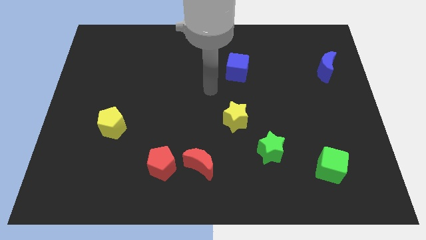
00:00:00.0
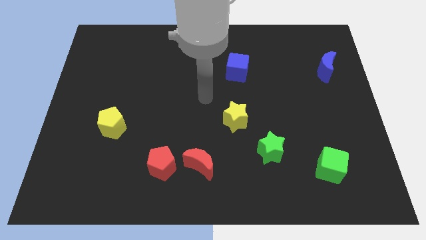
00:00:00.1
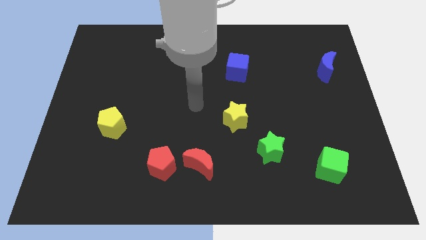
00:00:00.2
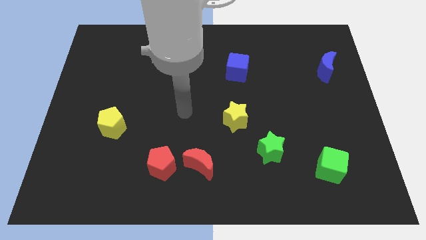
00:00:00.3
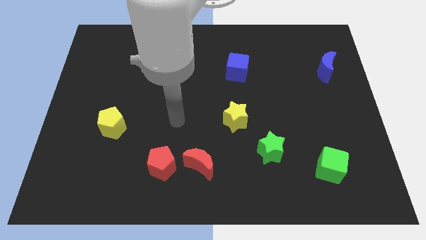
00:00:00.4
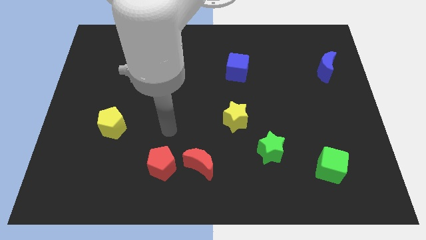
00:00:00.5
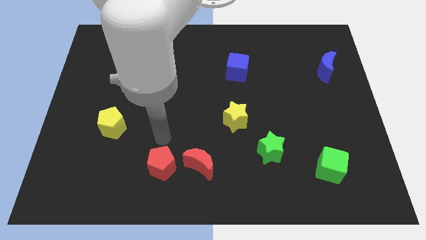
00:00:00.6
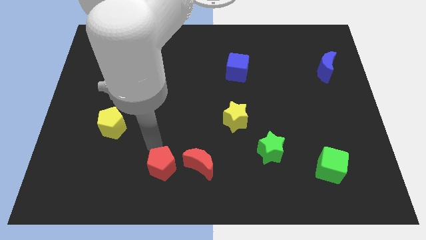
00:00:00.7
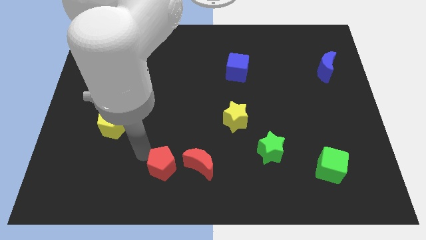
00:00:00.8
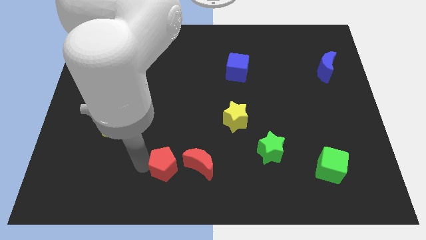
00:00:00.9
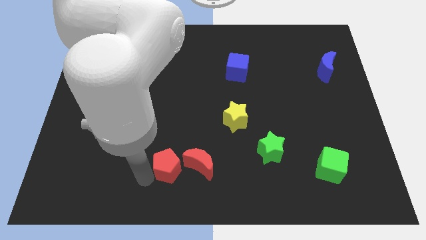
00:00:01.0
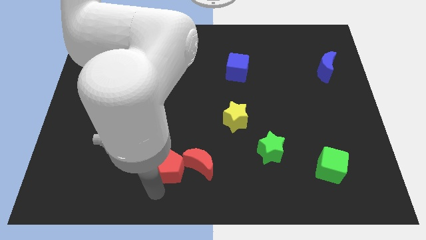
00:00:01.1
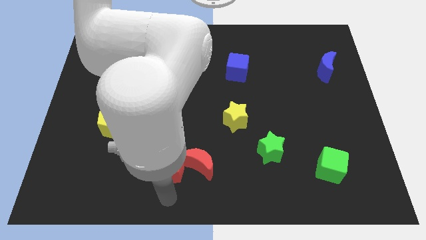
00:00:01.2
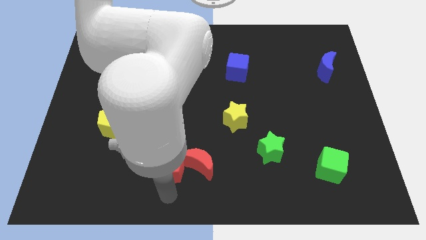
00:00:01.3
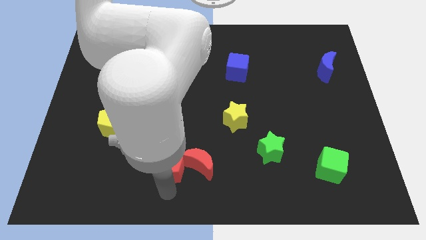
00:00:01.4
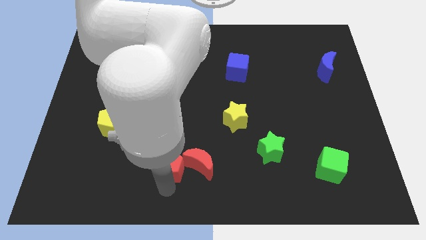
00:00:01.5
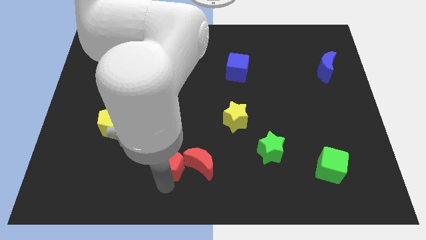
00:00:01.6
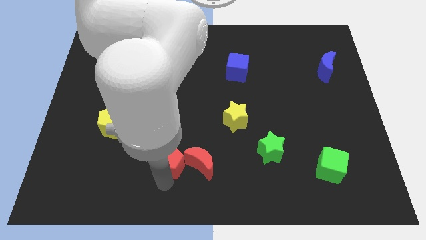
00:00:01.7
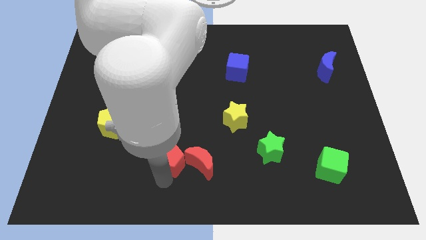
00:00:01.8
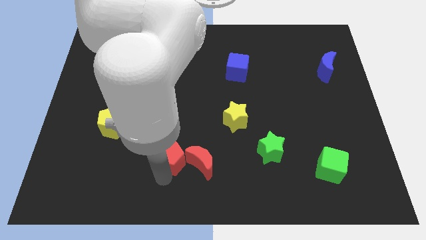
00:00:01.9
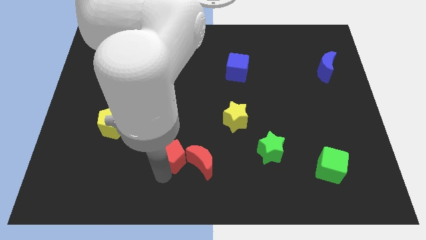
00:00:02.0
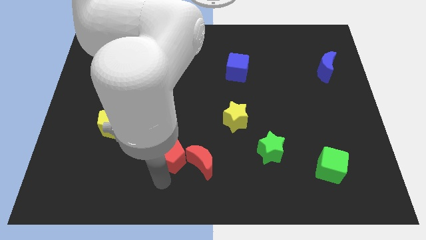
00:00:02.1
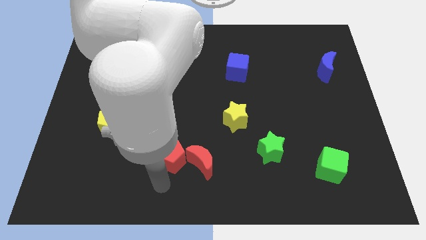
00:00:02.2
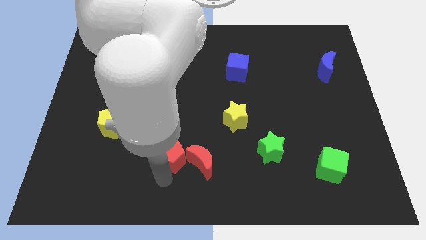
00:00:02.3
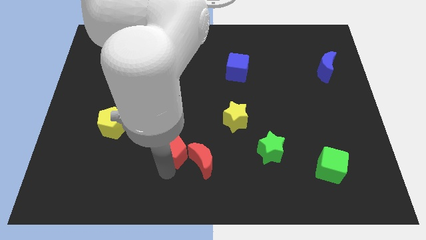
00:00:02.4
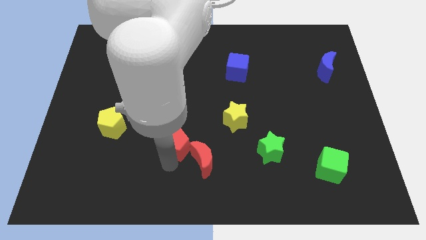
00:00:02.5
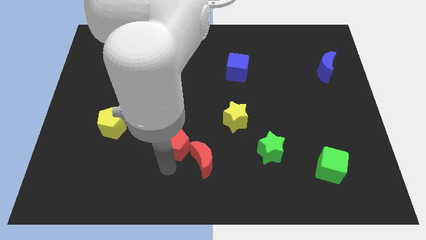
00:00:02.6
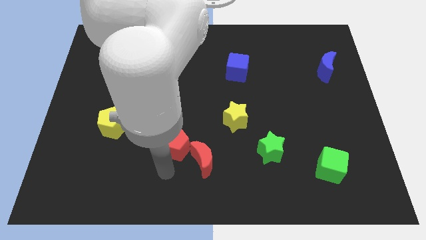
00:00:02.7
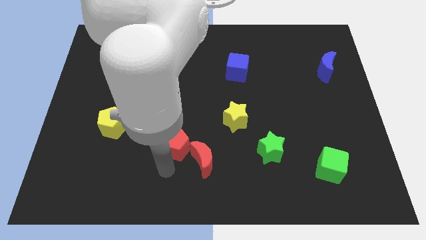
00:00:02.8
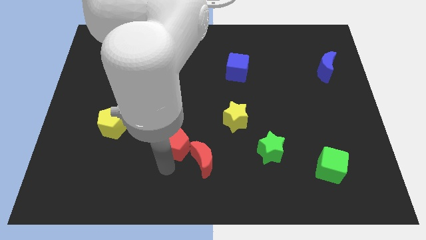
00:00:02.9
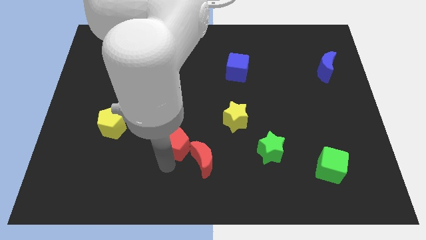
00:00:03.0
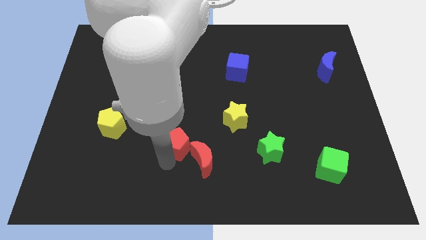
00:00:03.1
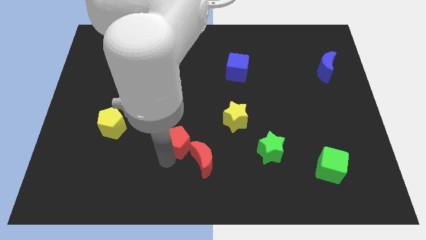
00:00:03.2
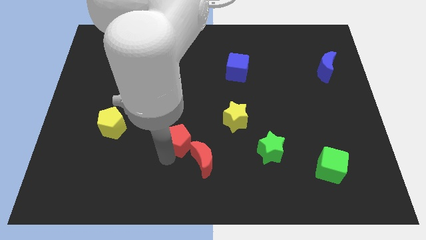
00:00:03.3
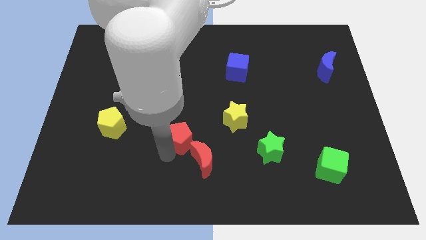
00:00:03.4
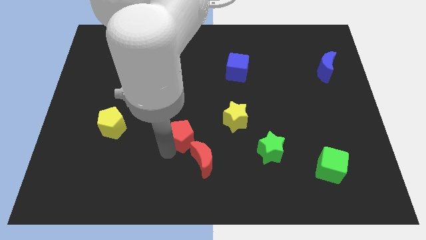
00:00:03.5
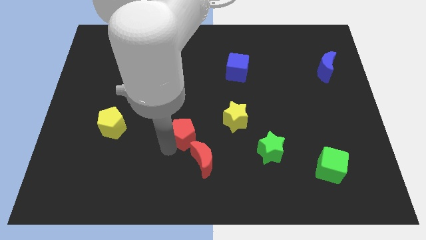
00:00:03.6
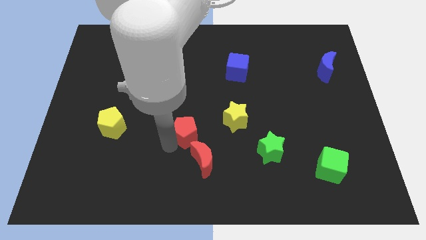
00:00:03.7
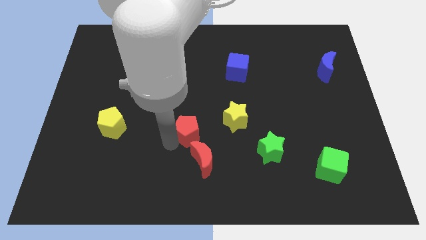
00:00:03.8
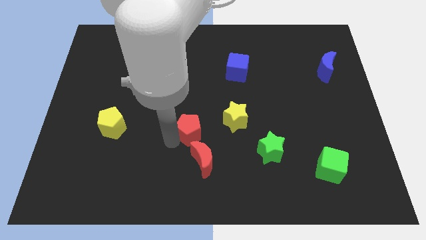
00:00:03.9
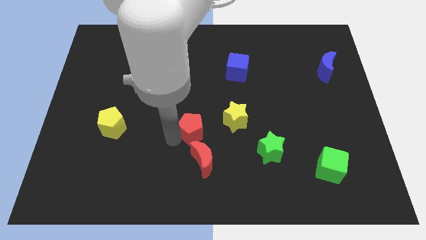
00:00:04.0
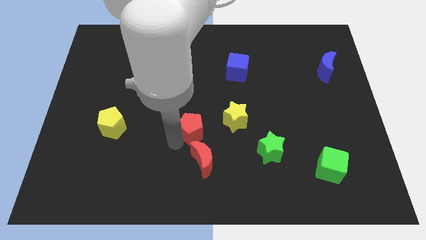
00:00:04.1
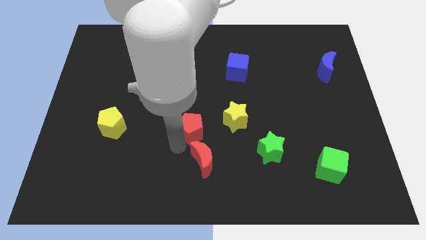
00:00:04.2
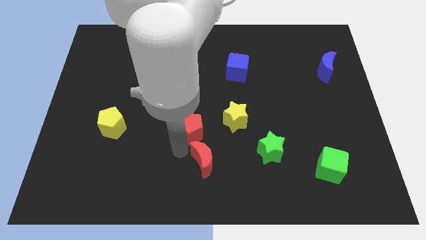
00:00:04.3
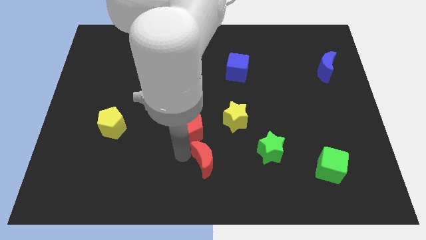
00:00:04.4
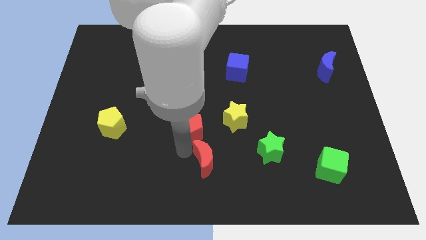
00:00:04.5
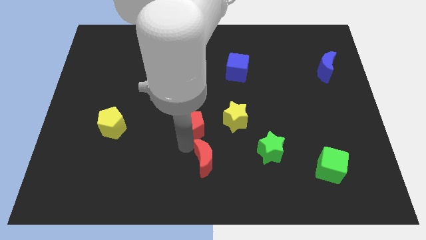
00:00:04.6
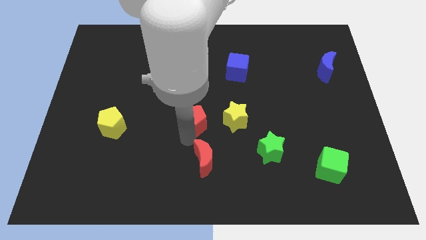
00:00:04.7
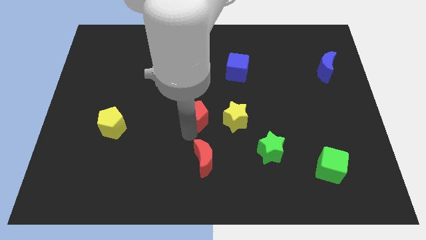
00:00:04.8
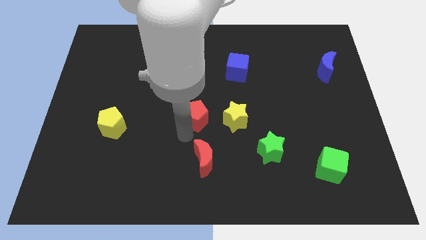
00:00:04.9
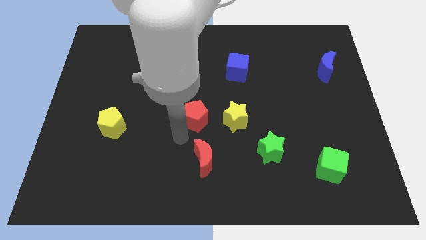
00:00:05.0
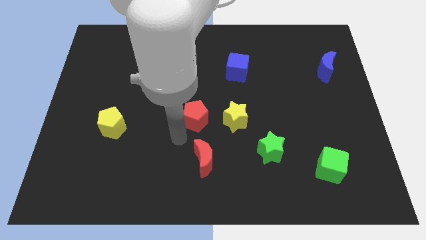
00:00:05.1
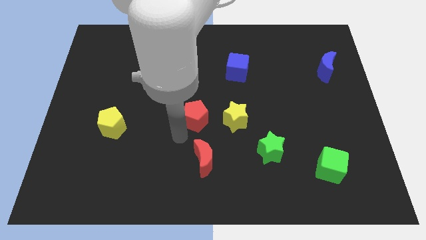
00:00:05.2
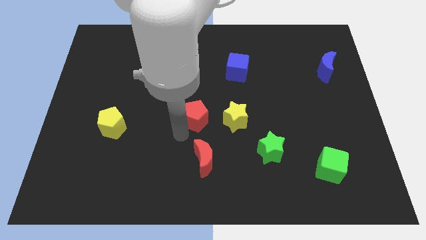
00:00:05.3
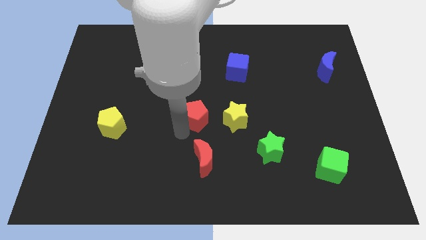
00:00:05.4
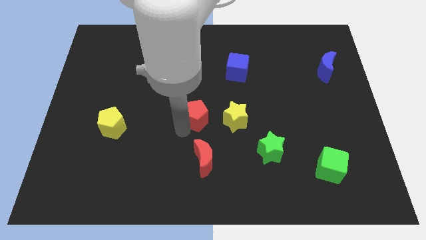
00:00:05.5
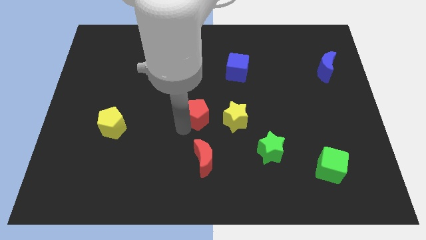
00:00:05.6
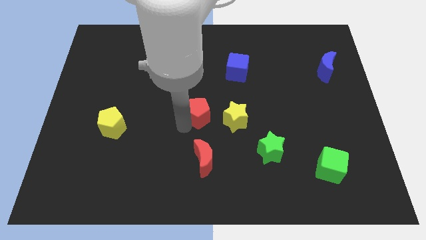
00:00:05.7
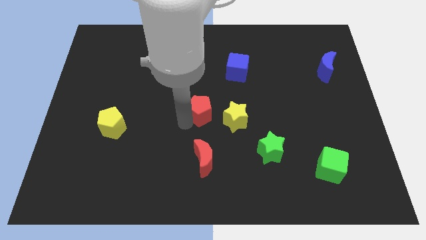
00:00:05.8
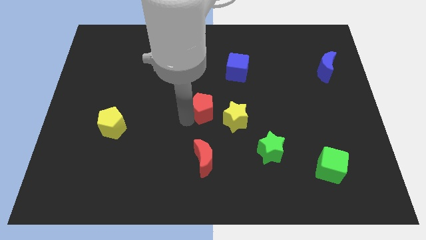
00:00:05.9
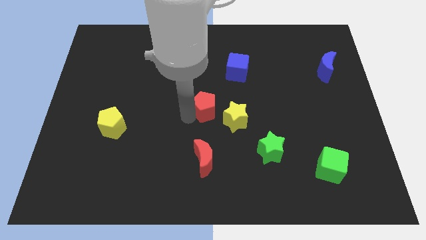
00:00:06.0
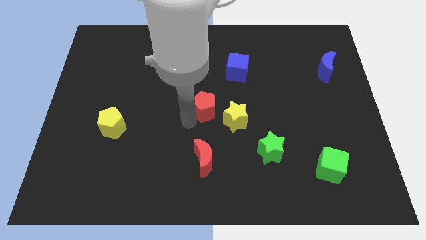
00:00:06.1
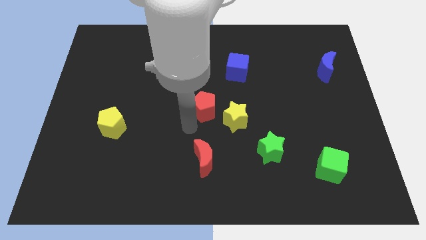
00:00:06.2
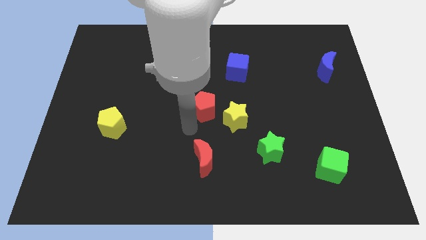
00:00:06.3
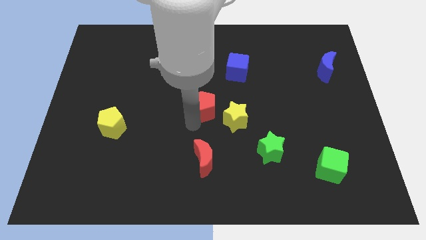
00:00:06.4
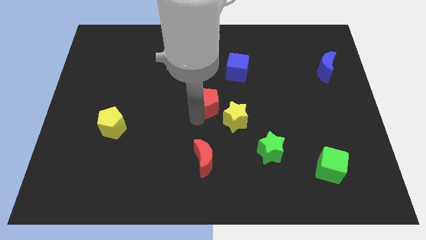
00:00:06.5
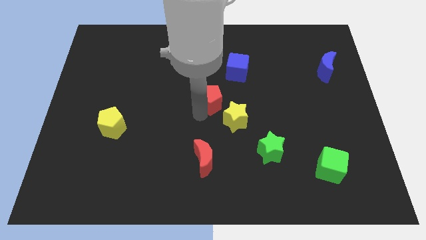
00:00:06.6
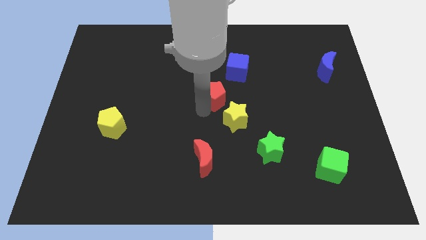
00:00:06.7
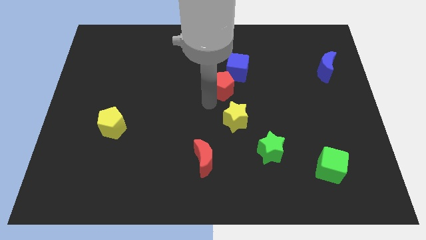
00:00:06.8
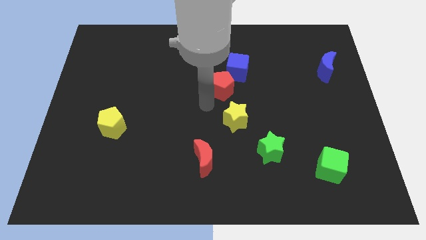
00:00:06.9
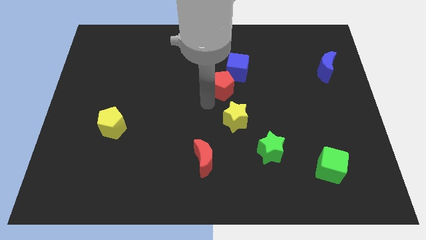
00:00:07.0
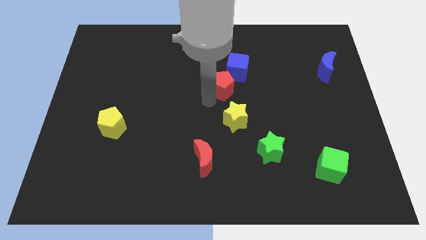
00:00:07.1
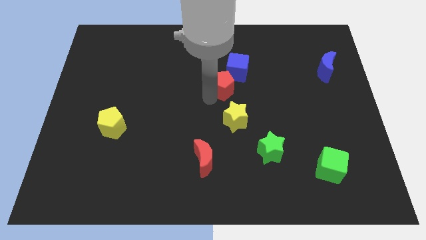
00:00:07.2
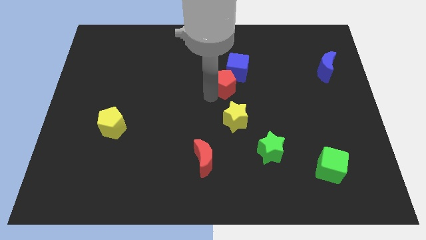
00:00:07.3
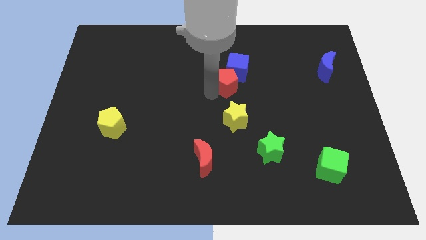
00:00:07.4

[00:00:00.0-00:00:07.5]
slide the red pentagon to the blue cube
